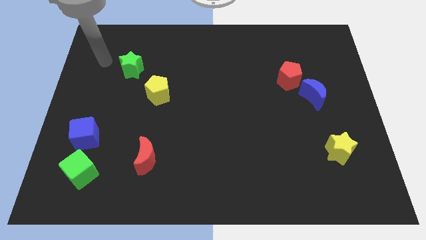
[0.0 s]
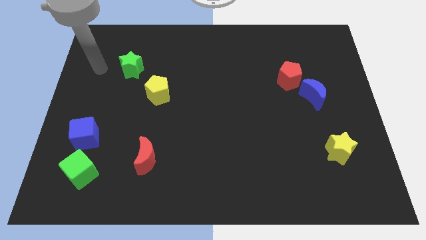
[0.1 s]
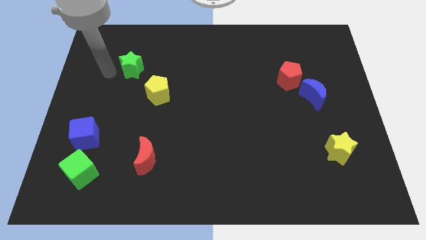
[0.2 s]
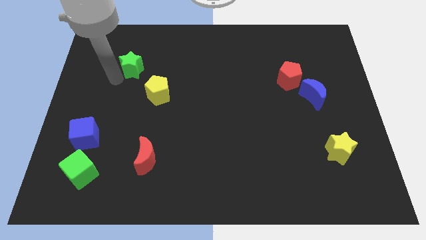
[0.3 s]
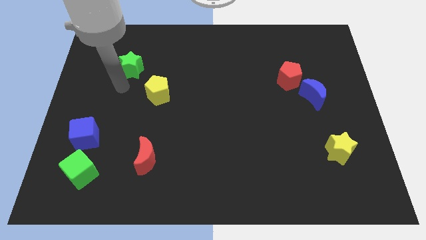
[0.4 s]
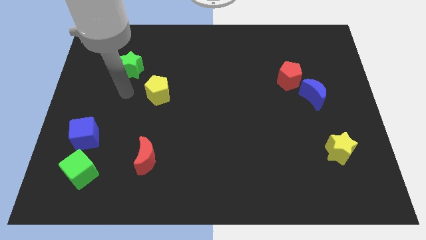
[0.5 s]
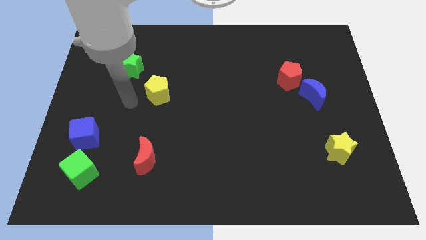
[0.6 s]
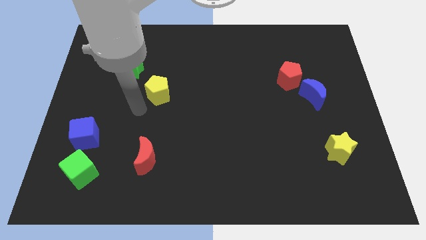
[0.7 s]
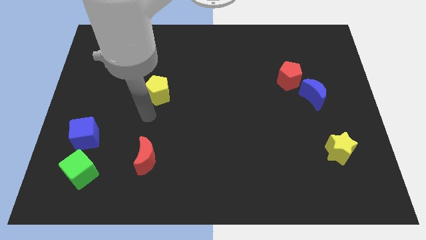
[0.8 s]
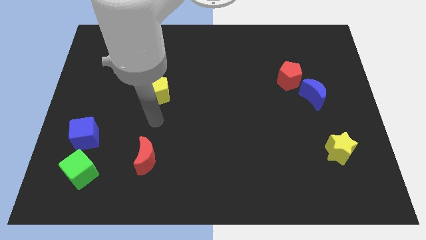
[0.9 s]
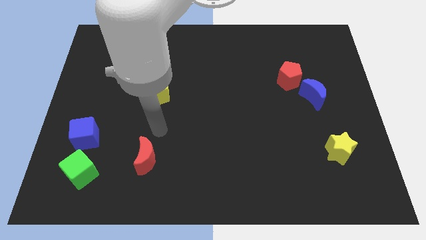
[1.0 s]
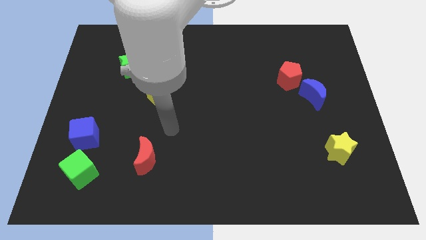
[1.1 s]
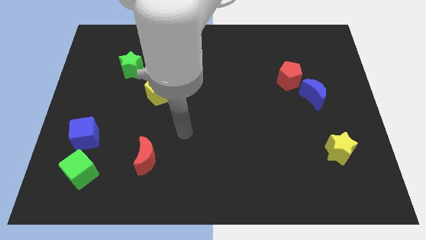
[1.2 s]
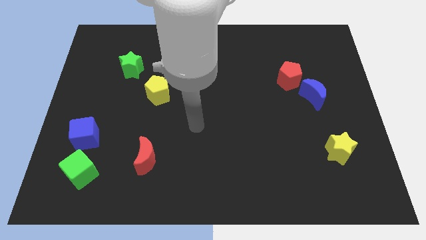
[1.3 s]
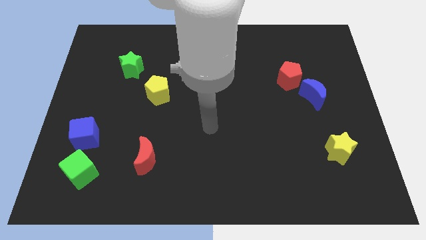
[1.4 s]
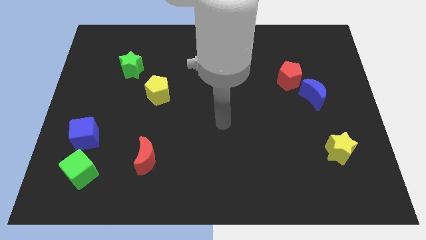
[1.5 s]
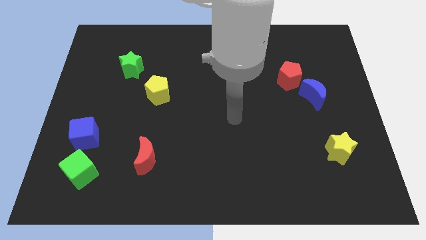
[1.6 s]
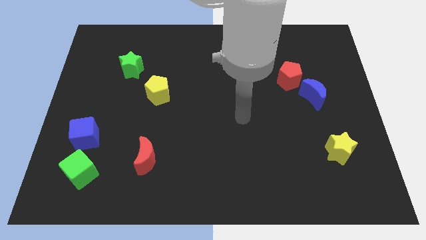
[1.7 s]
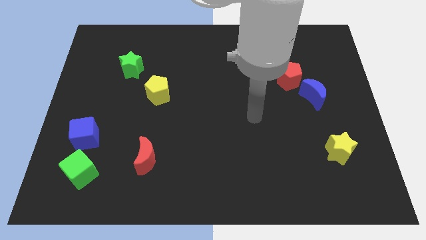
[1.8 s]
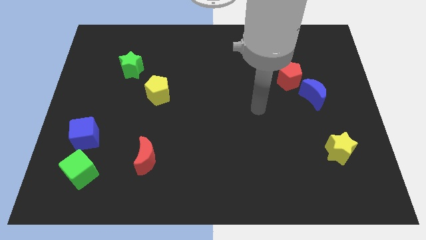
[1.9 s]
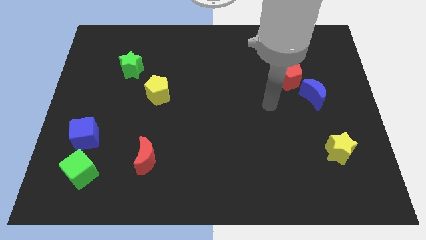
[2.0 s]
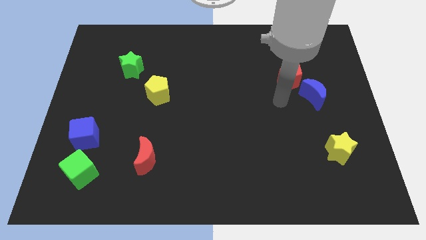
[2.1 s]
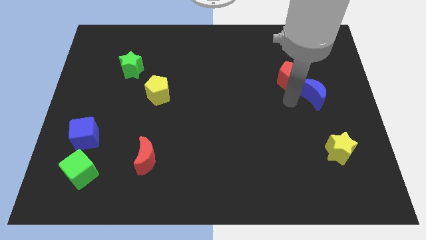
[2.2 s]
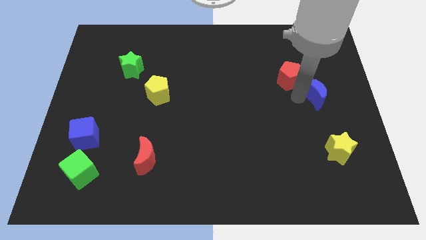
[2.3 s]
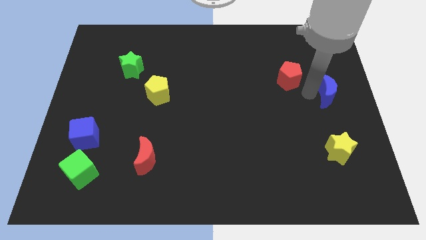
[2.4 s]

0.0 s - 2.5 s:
pull the red pentagon apart from the blue moon

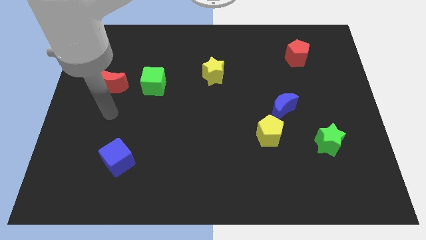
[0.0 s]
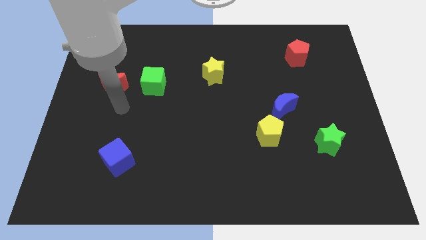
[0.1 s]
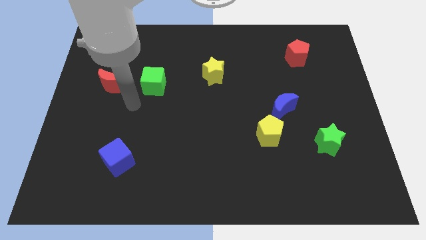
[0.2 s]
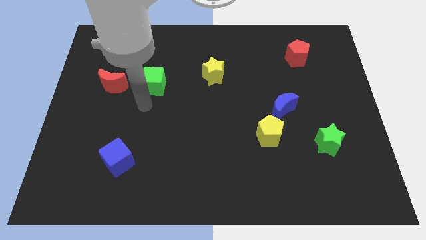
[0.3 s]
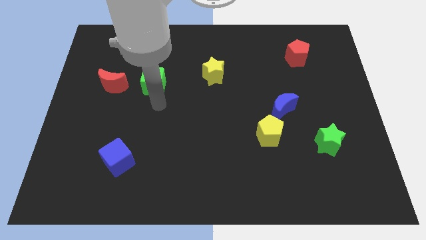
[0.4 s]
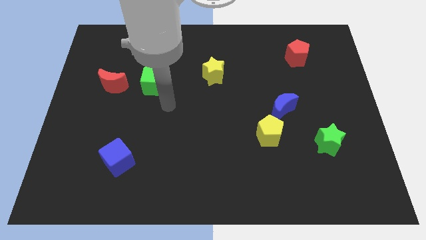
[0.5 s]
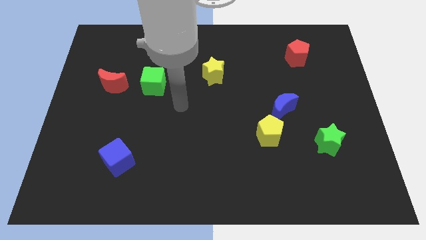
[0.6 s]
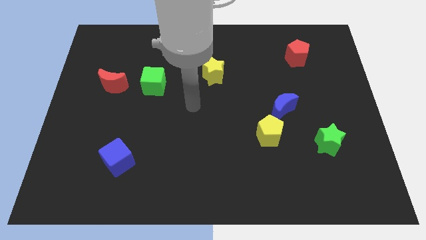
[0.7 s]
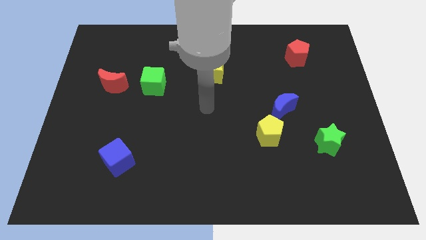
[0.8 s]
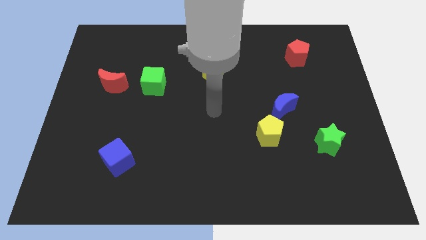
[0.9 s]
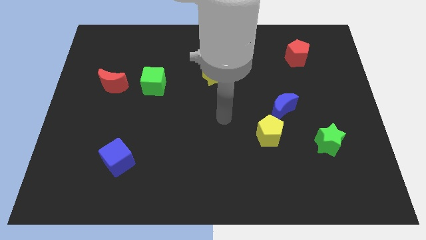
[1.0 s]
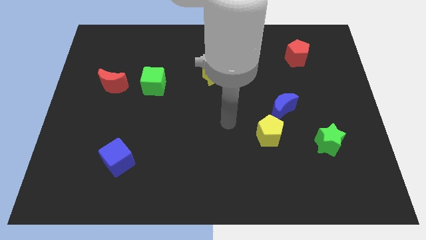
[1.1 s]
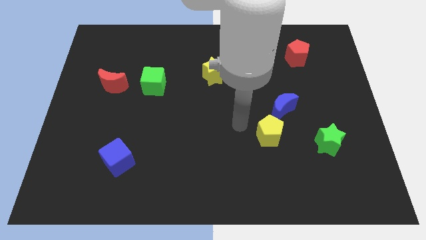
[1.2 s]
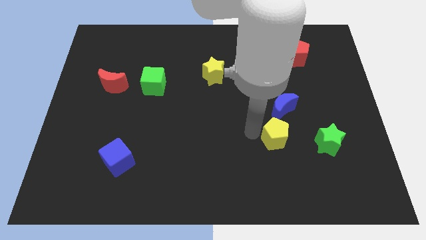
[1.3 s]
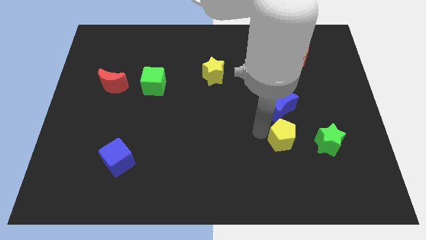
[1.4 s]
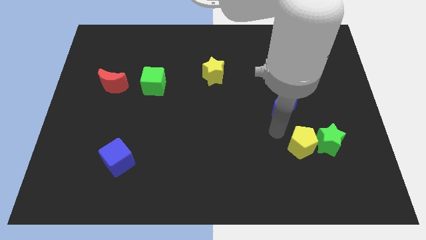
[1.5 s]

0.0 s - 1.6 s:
move the blue moon away from the yellow pentagon

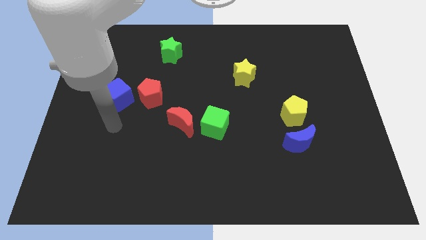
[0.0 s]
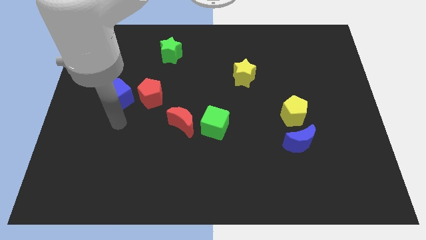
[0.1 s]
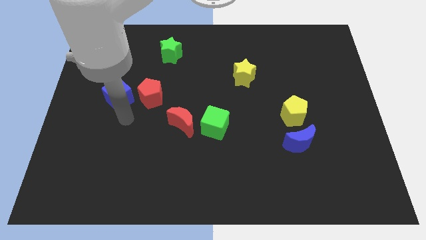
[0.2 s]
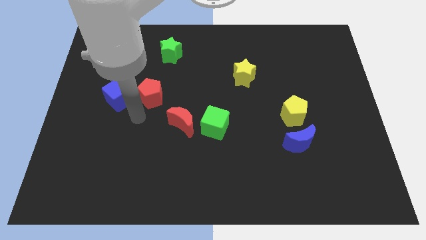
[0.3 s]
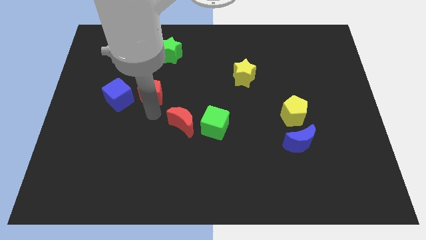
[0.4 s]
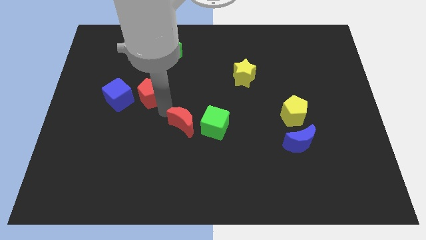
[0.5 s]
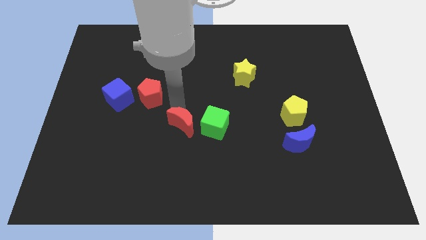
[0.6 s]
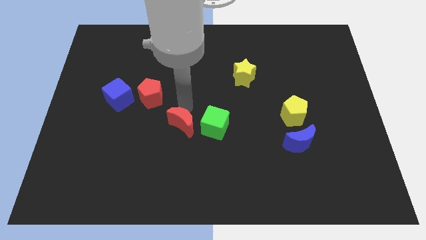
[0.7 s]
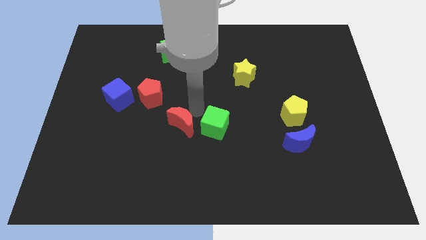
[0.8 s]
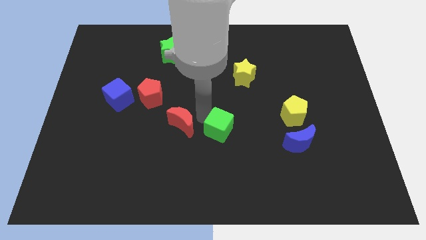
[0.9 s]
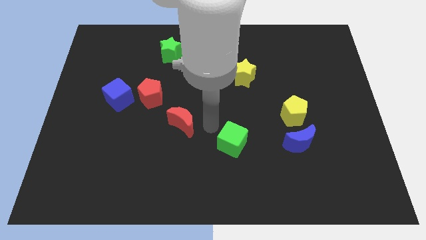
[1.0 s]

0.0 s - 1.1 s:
separate the red moon from the green cube

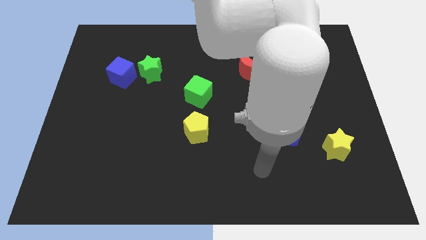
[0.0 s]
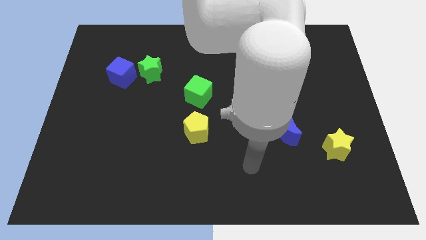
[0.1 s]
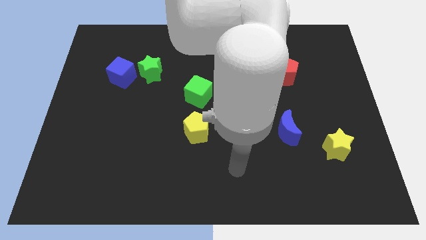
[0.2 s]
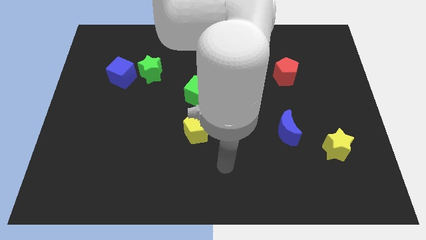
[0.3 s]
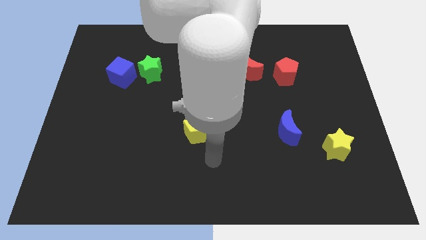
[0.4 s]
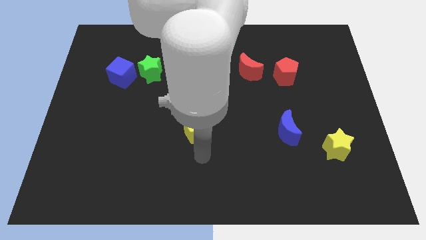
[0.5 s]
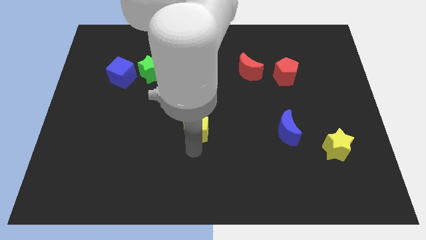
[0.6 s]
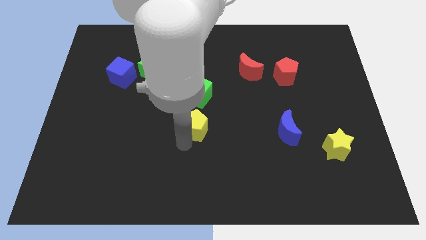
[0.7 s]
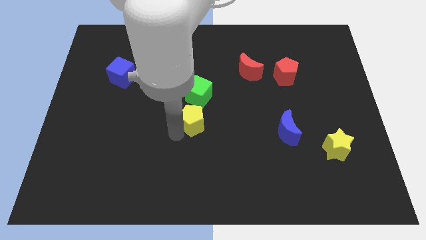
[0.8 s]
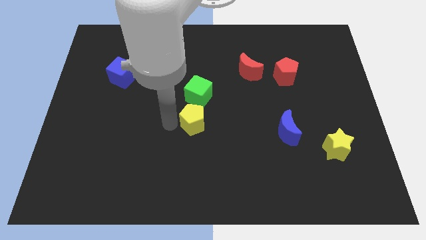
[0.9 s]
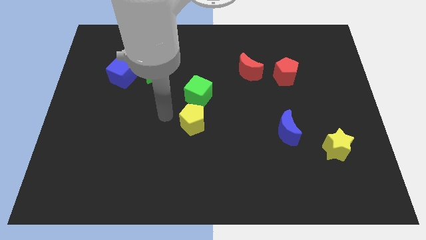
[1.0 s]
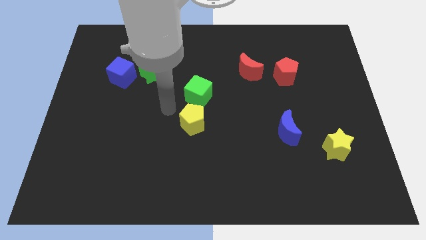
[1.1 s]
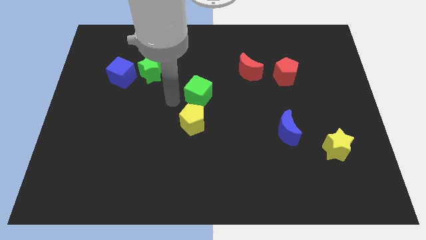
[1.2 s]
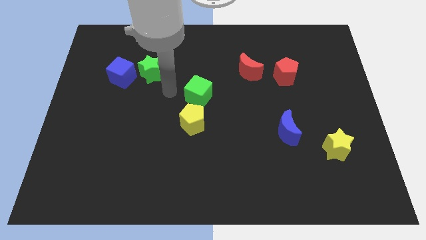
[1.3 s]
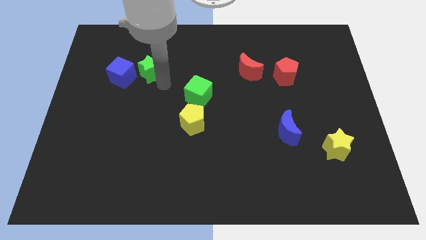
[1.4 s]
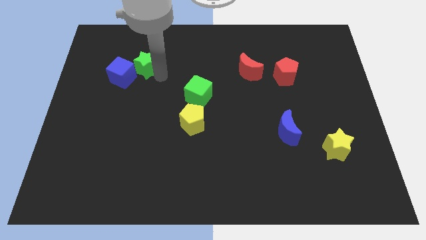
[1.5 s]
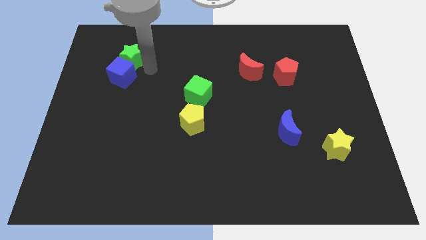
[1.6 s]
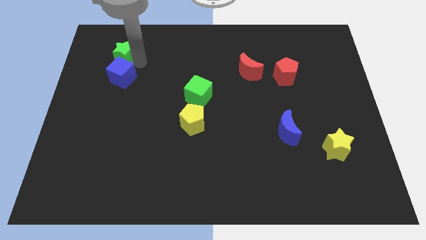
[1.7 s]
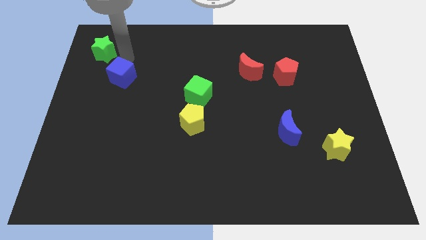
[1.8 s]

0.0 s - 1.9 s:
pull the blue cube apart from the green star

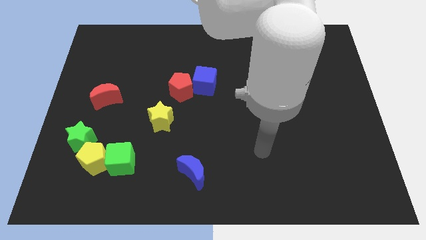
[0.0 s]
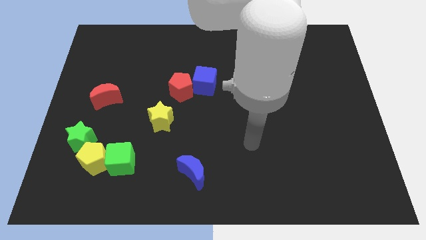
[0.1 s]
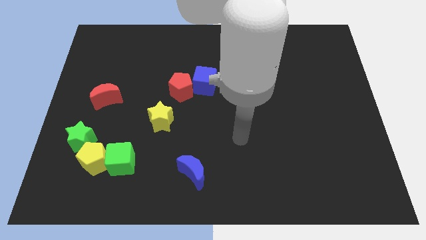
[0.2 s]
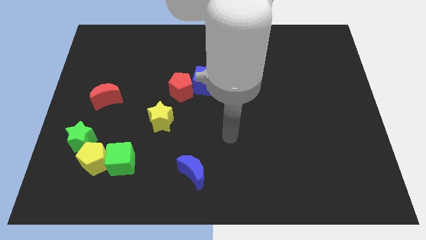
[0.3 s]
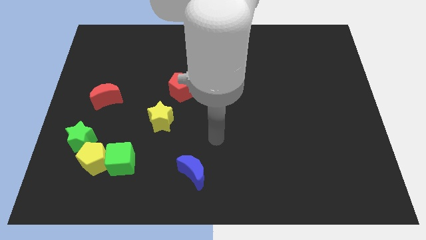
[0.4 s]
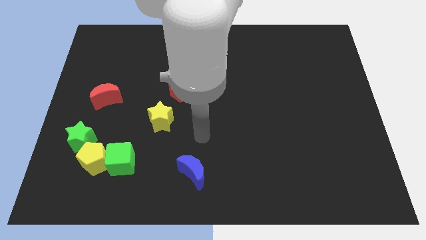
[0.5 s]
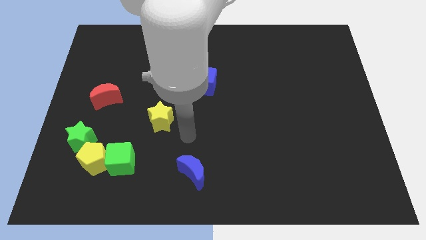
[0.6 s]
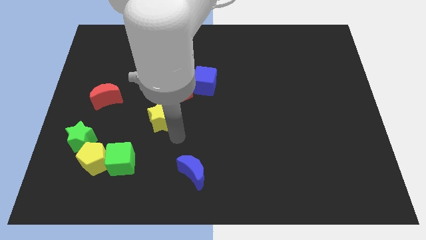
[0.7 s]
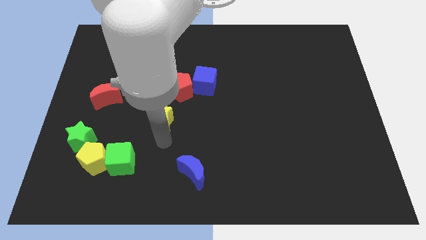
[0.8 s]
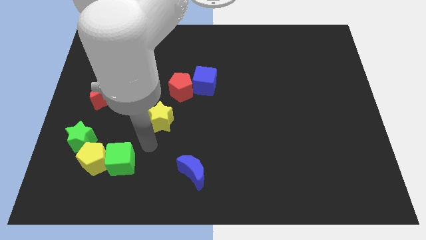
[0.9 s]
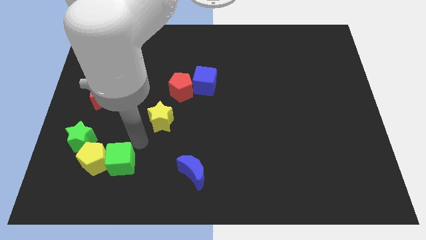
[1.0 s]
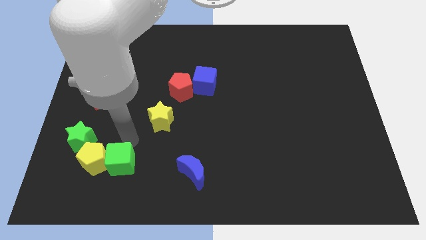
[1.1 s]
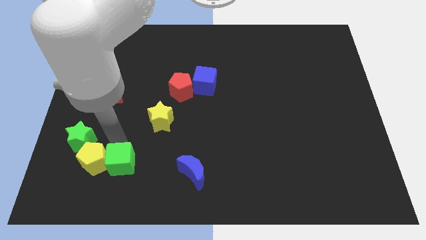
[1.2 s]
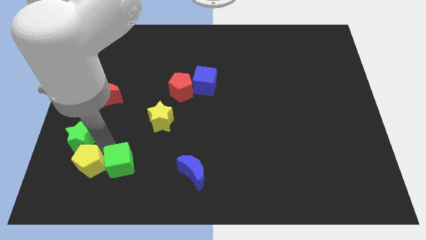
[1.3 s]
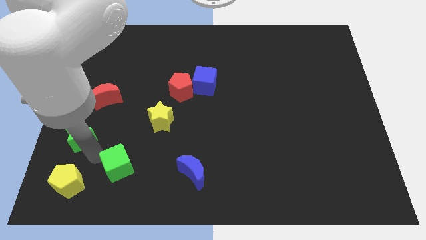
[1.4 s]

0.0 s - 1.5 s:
pull the green cube apart from the yellow pentagon

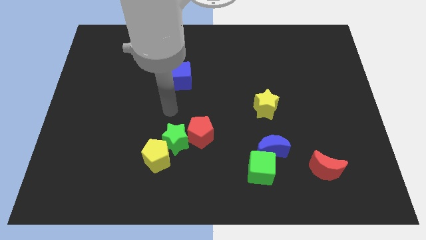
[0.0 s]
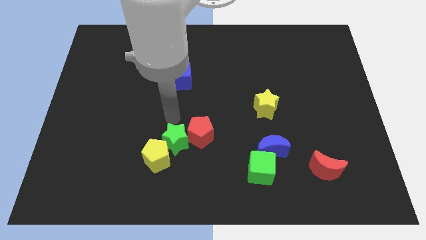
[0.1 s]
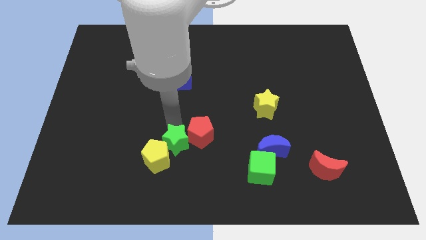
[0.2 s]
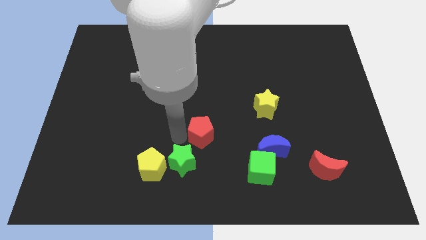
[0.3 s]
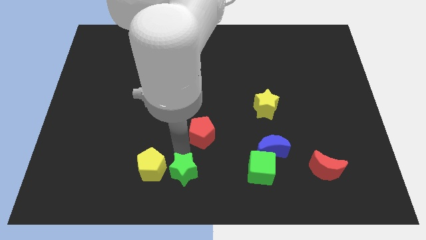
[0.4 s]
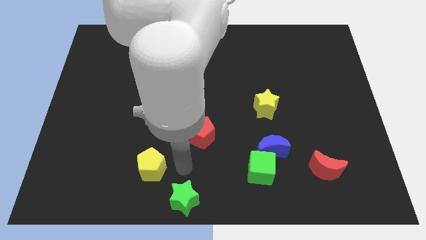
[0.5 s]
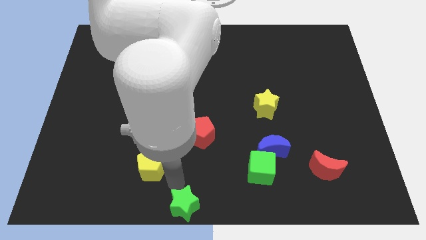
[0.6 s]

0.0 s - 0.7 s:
move the yellow pentagon away from the green star

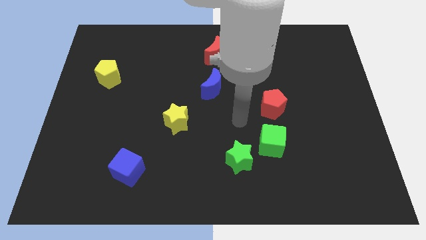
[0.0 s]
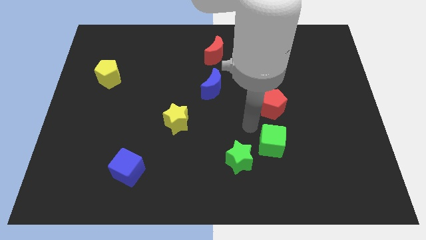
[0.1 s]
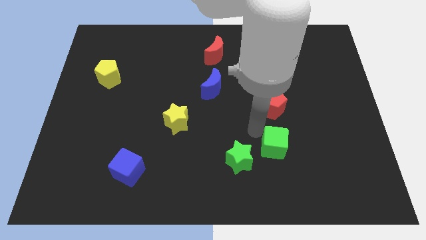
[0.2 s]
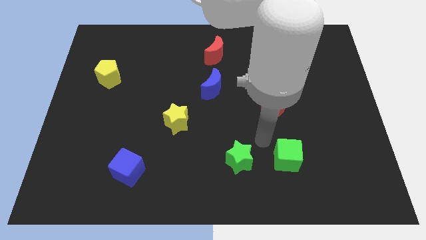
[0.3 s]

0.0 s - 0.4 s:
separate the green star from the green cube
